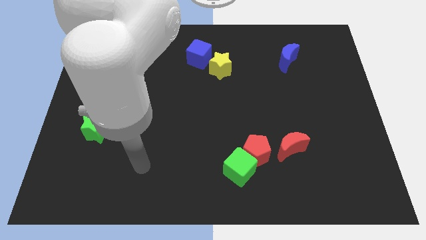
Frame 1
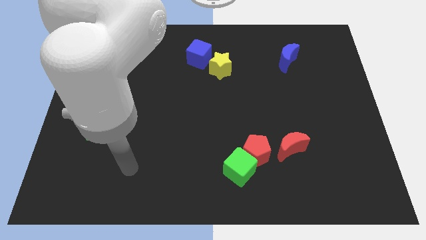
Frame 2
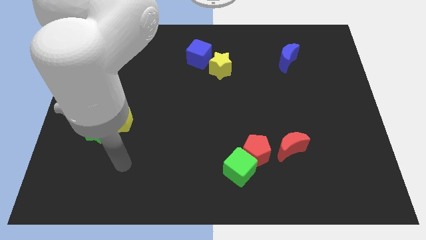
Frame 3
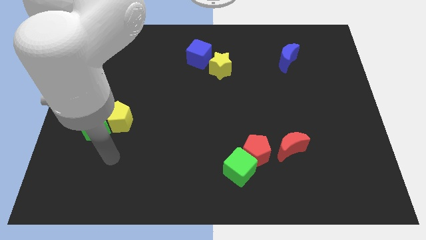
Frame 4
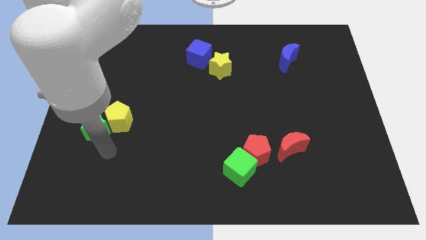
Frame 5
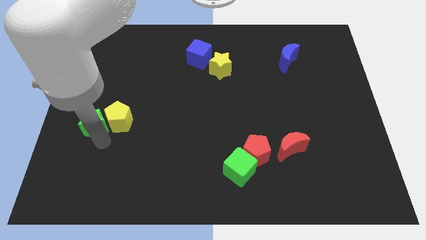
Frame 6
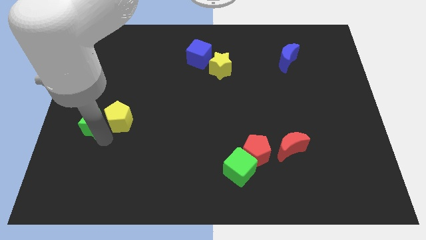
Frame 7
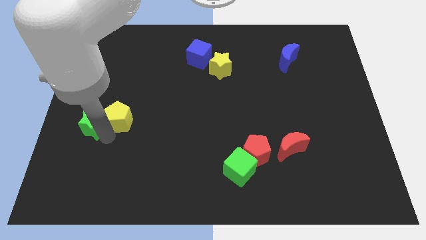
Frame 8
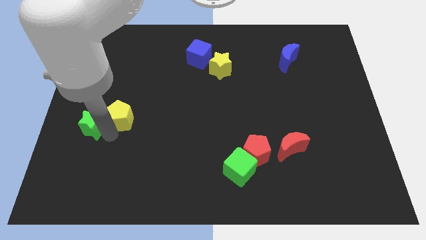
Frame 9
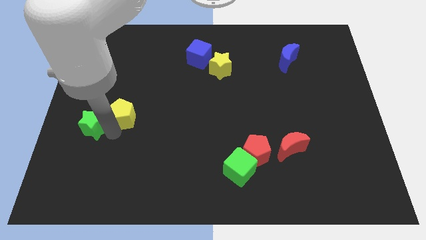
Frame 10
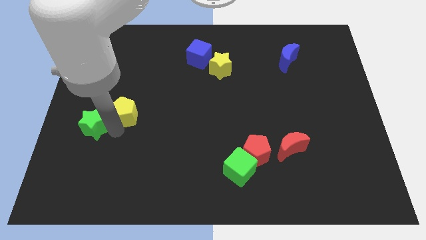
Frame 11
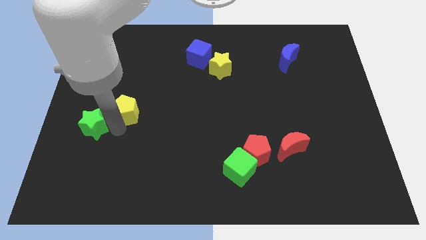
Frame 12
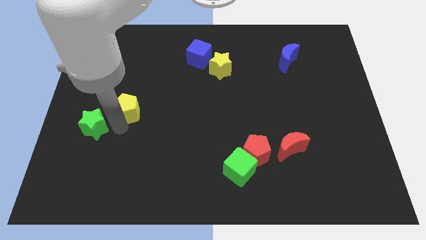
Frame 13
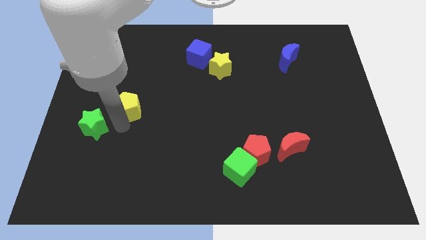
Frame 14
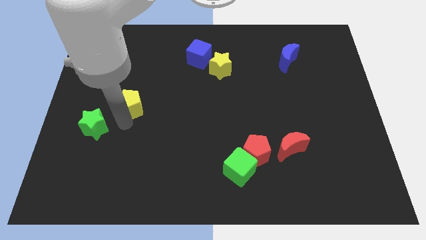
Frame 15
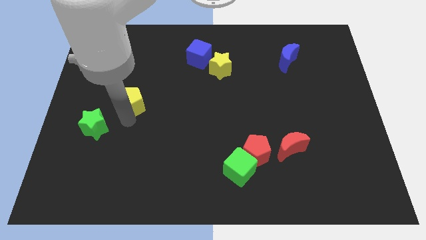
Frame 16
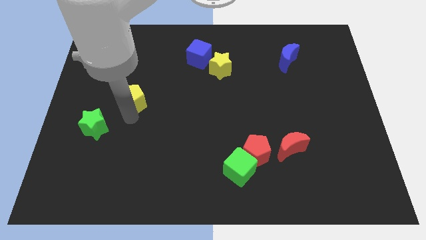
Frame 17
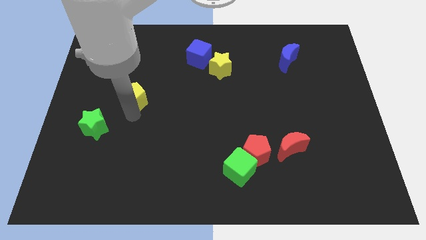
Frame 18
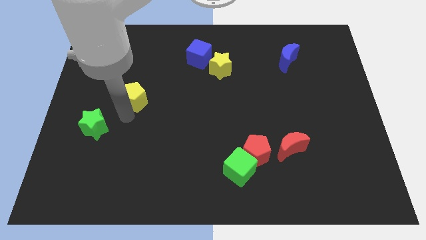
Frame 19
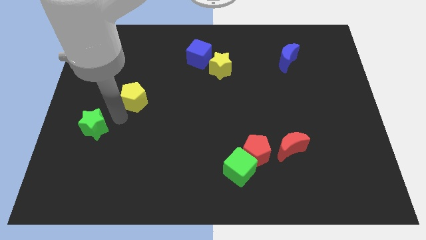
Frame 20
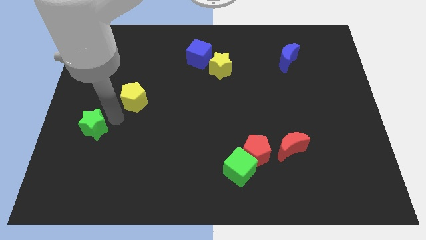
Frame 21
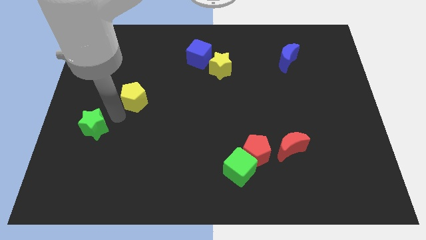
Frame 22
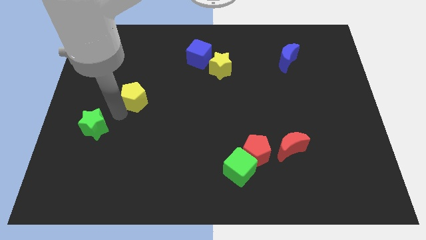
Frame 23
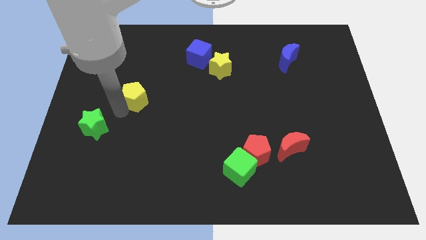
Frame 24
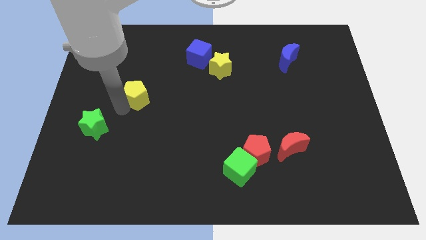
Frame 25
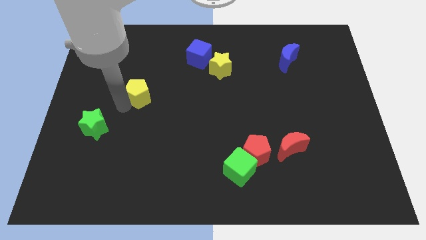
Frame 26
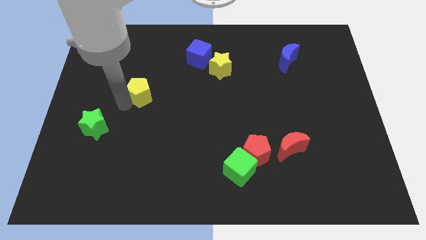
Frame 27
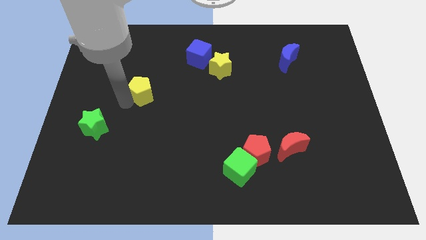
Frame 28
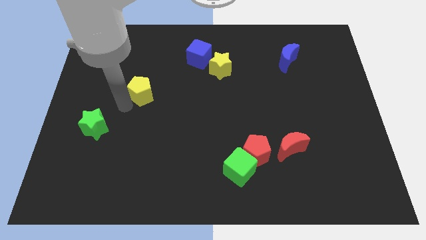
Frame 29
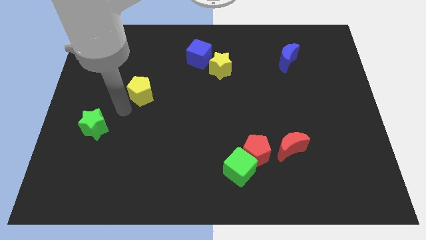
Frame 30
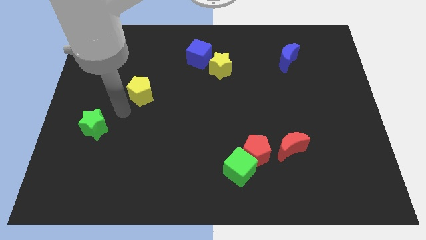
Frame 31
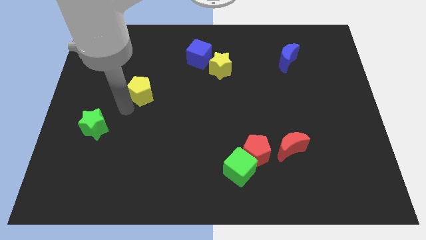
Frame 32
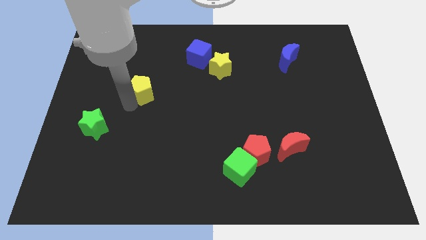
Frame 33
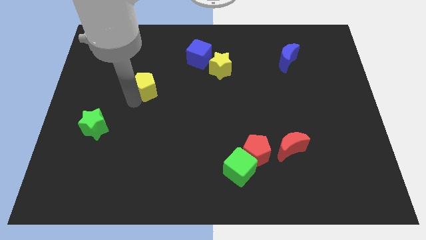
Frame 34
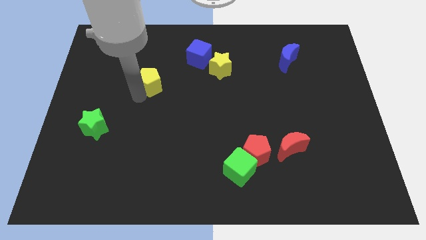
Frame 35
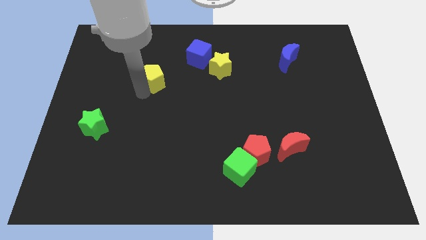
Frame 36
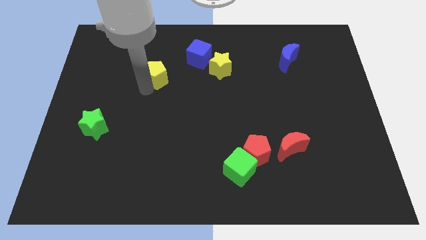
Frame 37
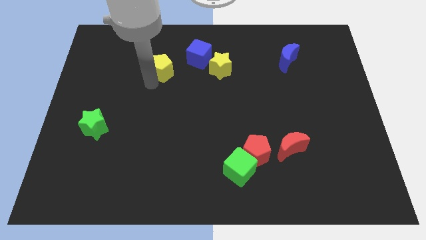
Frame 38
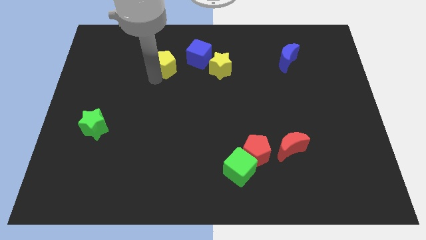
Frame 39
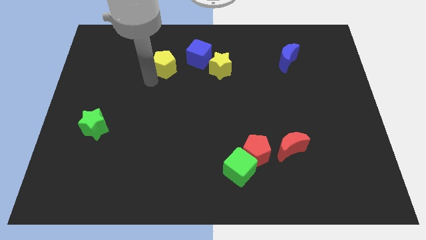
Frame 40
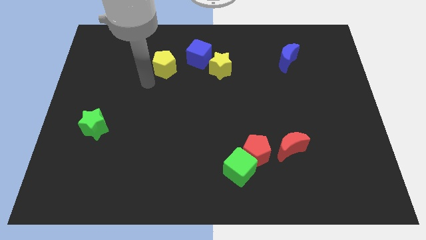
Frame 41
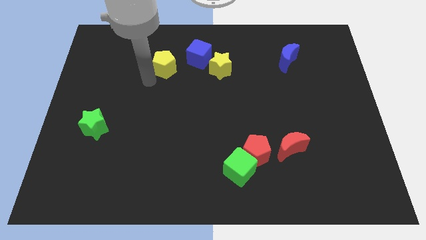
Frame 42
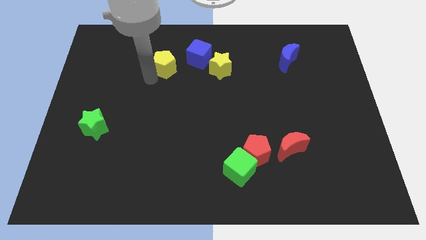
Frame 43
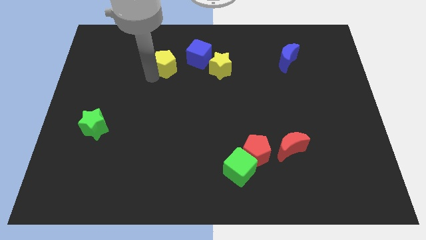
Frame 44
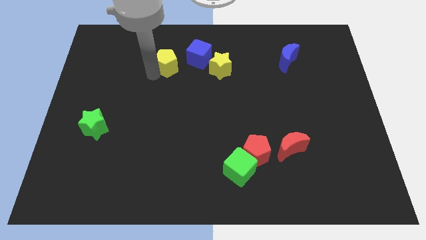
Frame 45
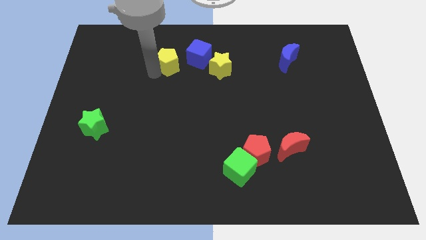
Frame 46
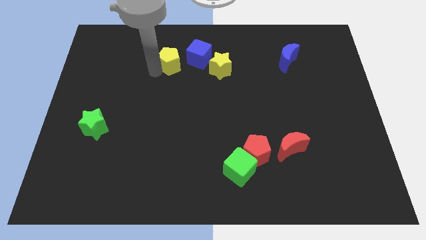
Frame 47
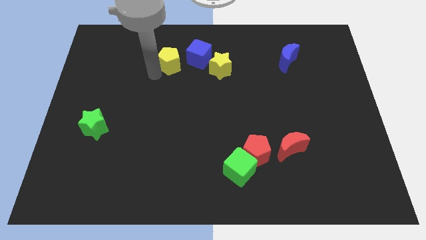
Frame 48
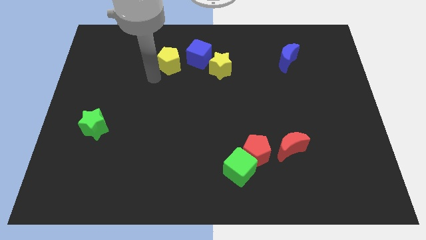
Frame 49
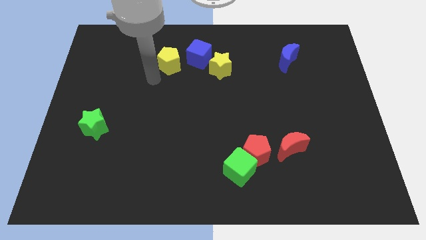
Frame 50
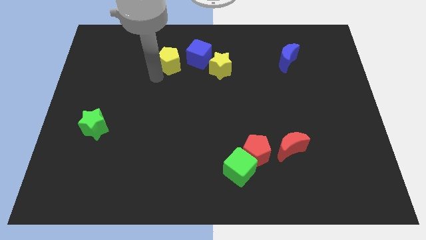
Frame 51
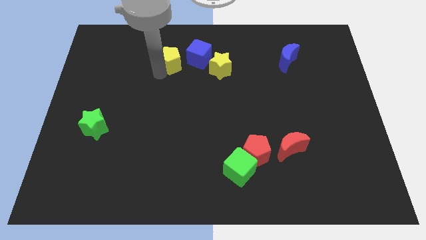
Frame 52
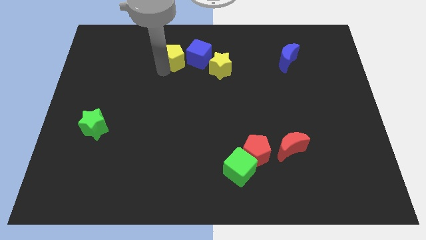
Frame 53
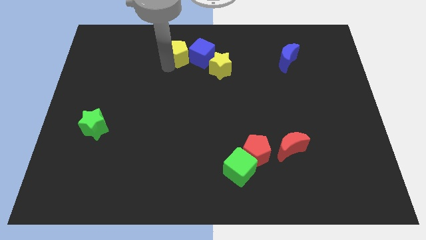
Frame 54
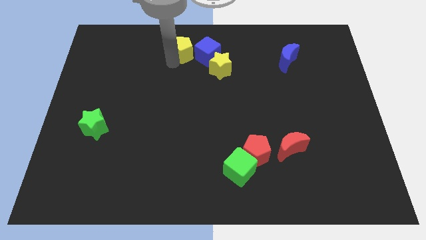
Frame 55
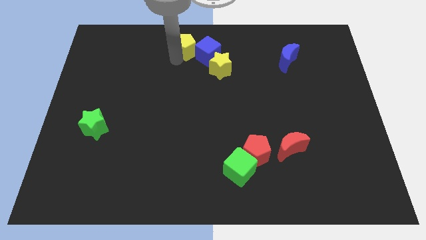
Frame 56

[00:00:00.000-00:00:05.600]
put the yellow pentagon to the top

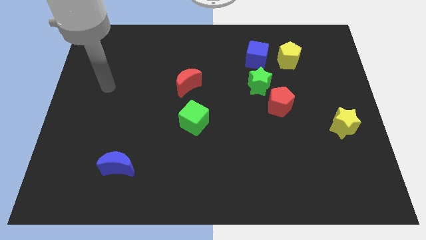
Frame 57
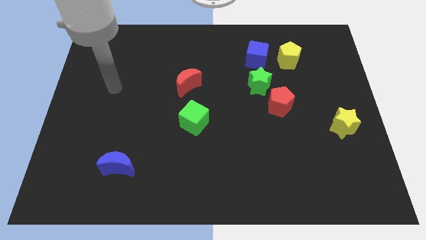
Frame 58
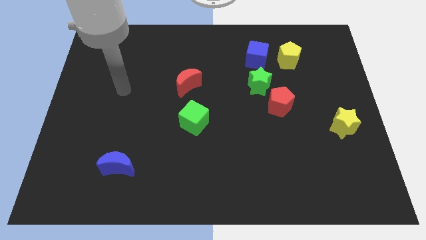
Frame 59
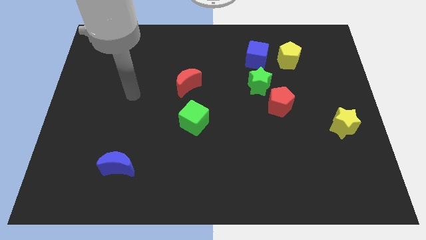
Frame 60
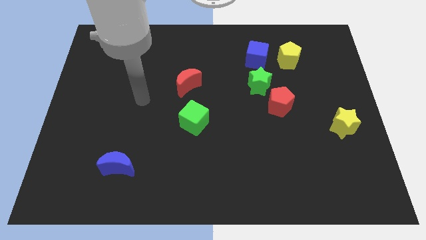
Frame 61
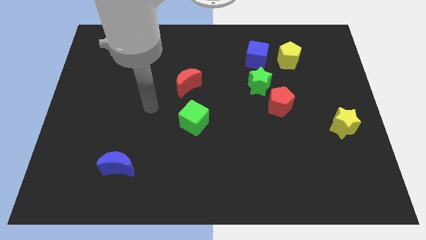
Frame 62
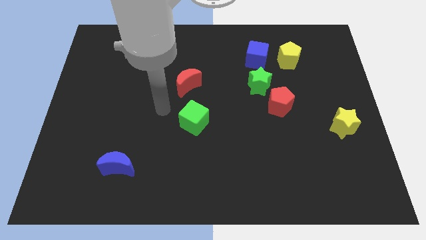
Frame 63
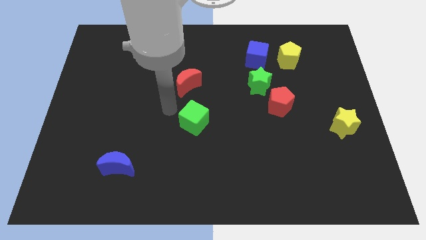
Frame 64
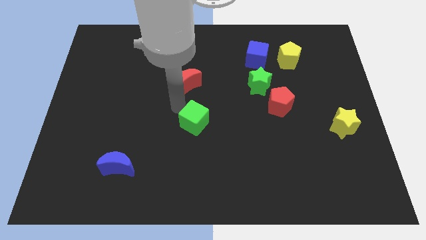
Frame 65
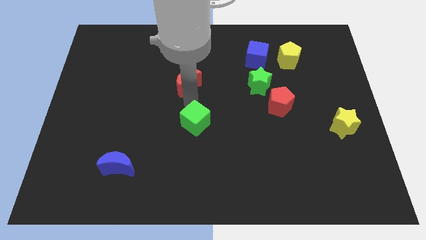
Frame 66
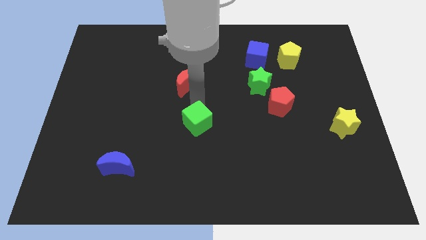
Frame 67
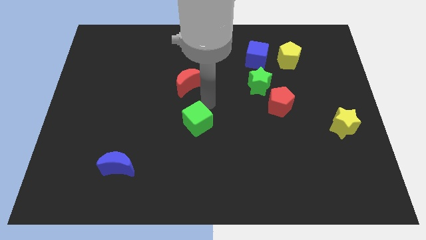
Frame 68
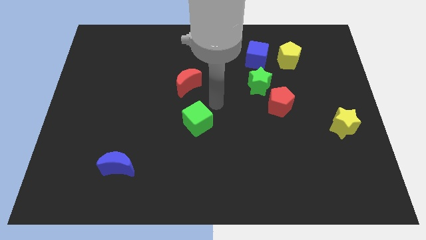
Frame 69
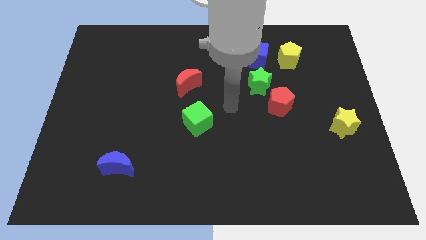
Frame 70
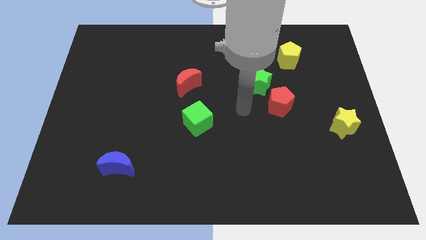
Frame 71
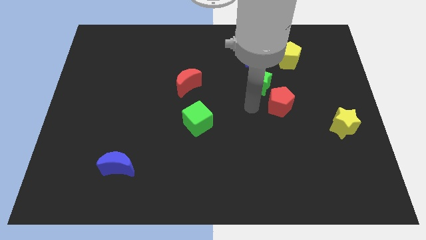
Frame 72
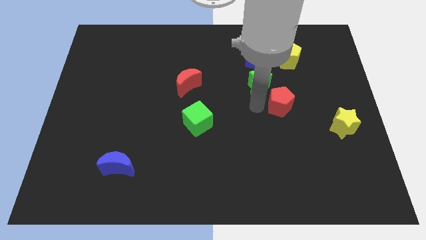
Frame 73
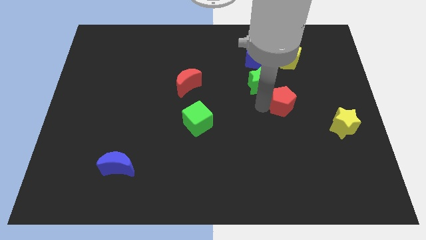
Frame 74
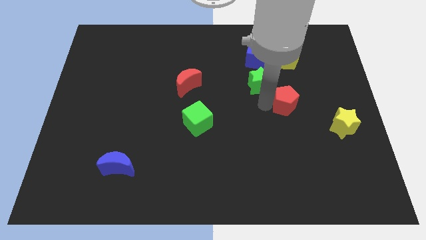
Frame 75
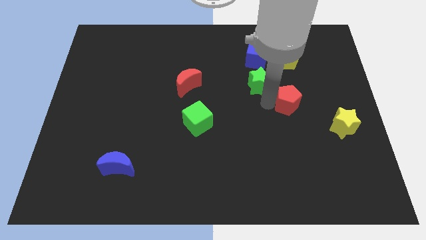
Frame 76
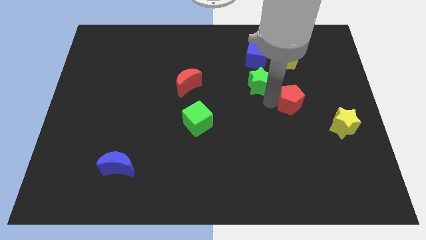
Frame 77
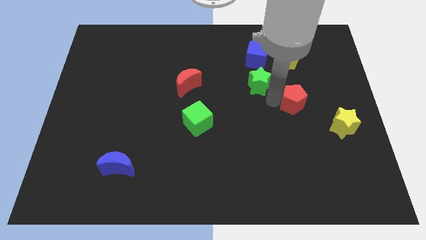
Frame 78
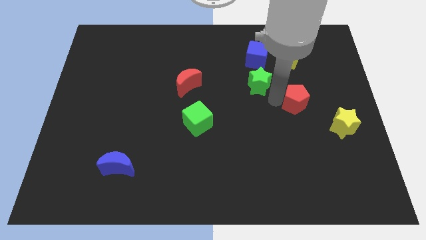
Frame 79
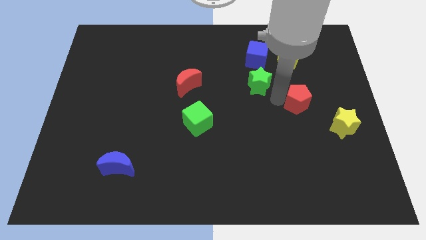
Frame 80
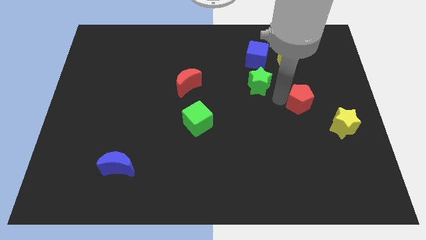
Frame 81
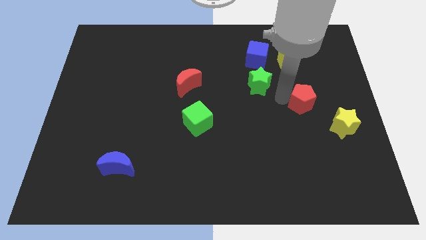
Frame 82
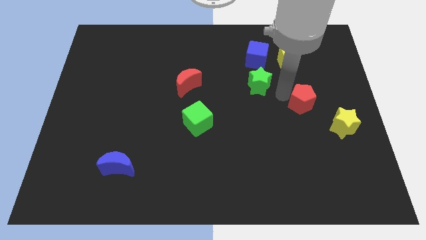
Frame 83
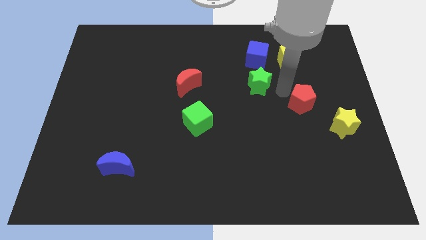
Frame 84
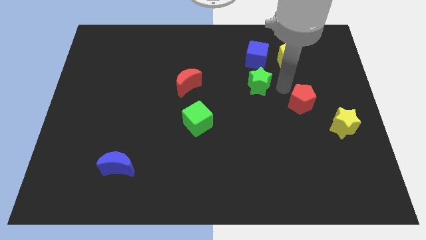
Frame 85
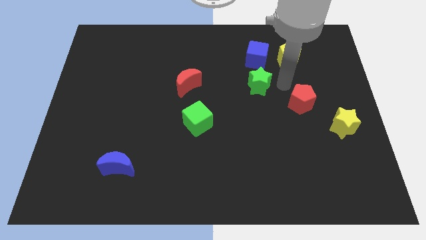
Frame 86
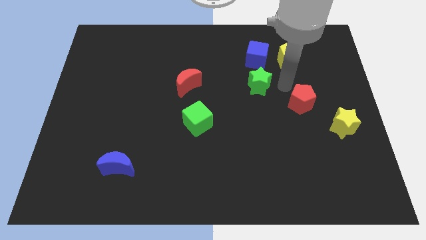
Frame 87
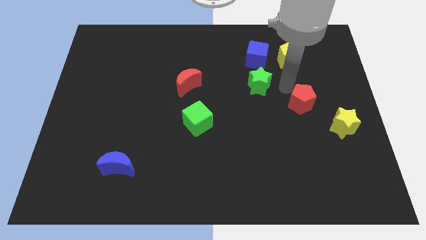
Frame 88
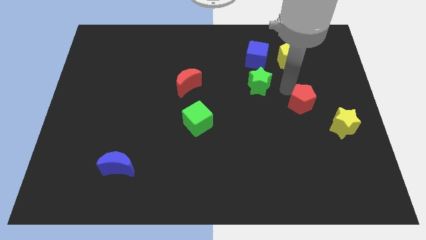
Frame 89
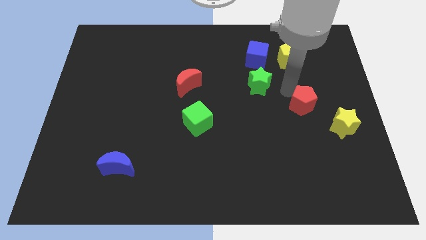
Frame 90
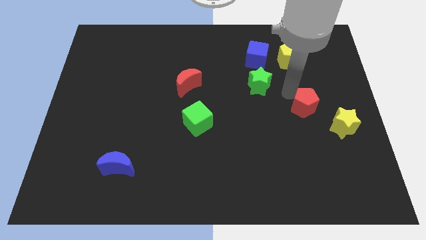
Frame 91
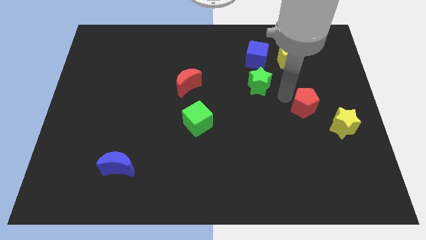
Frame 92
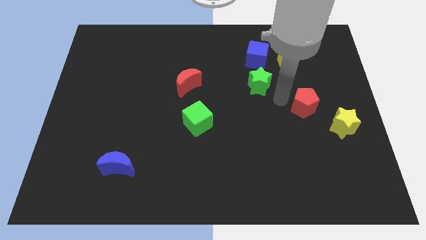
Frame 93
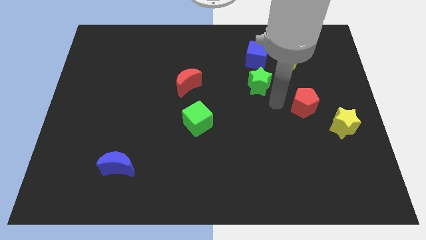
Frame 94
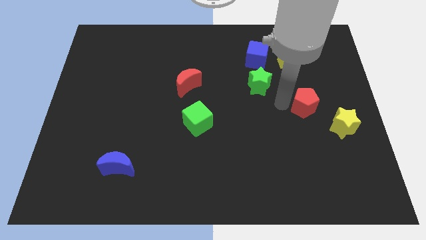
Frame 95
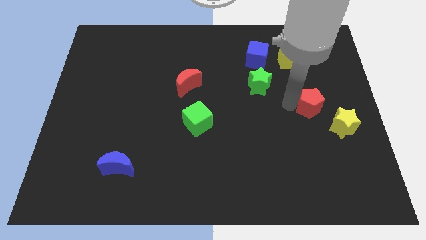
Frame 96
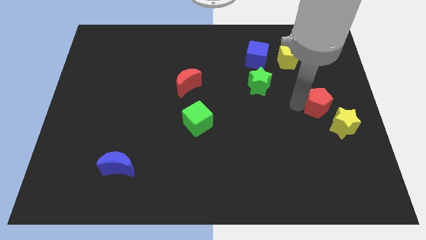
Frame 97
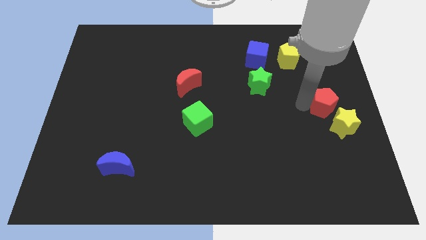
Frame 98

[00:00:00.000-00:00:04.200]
put the red pentagon to the center right
